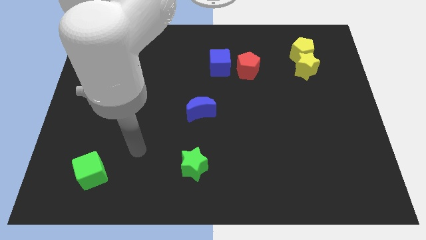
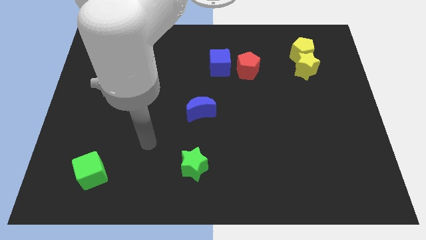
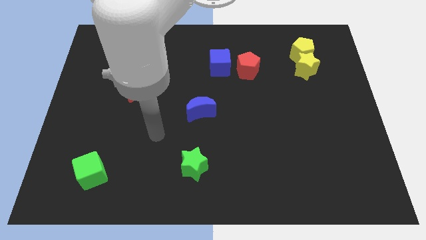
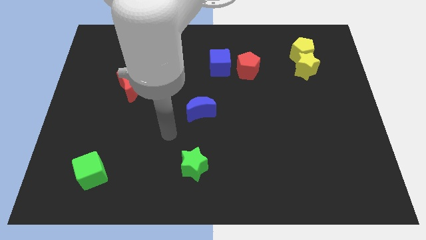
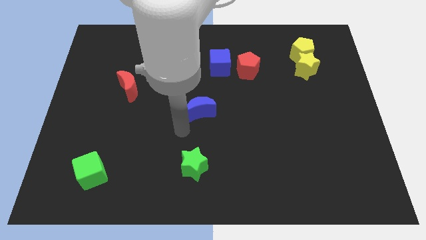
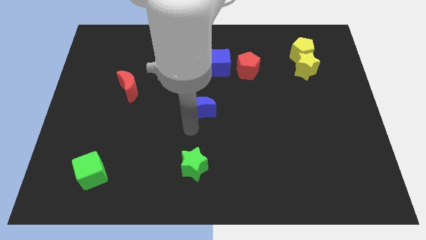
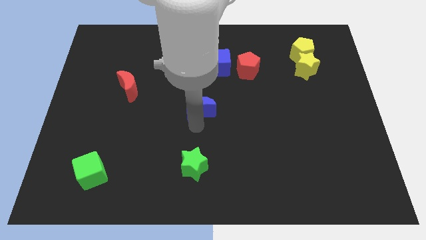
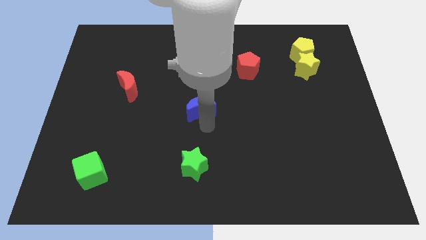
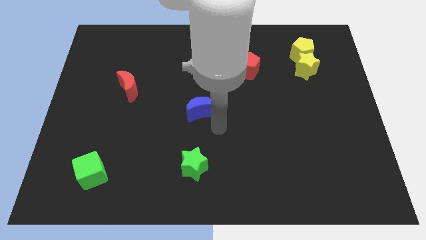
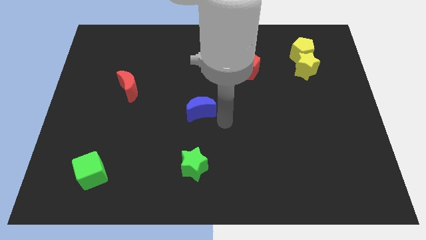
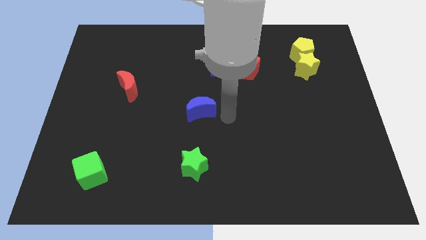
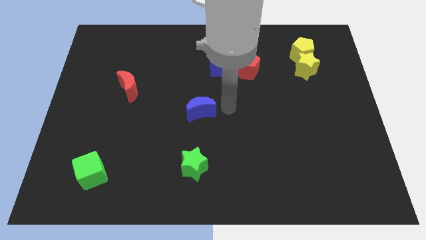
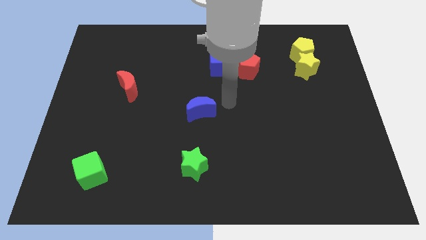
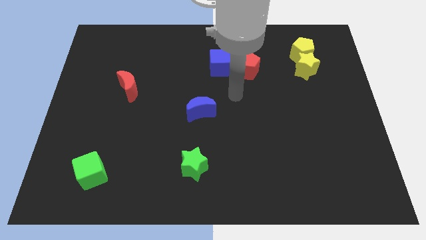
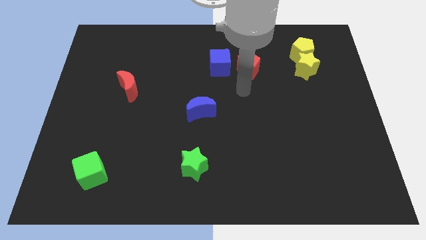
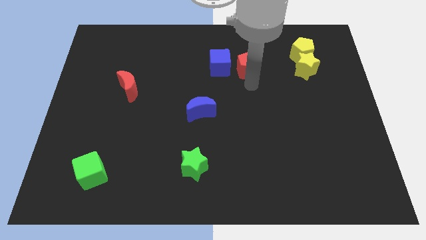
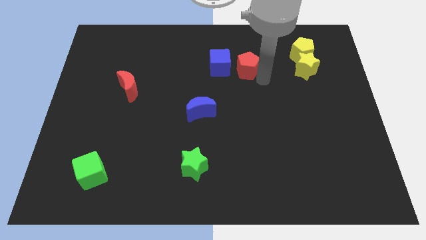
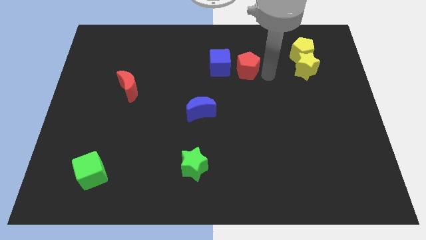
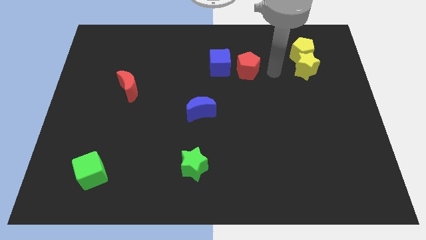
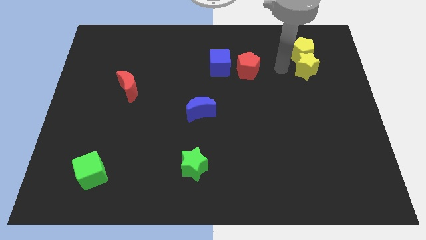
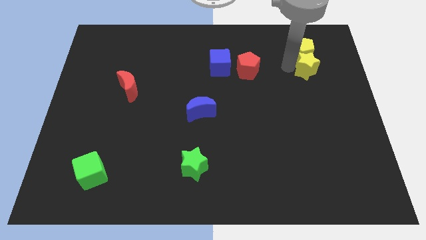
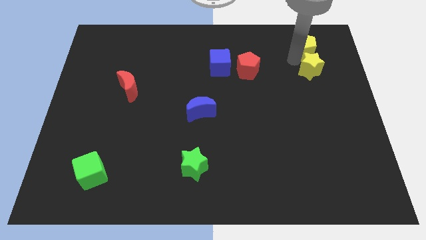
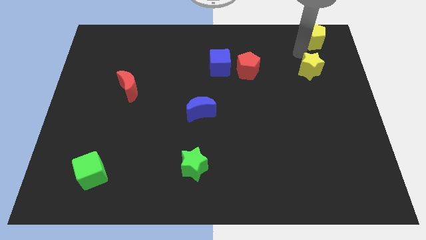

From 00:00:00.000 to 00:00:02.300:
separate the yellow star from the yellow pentagon

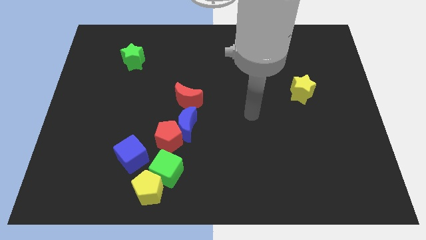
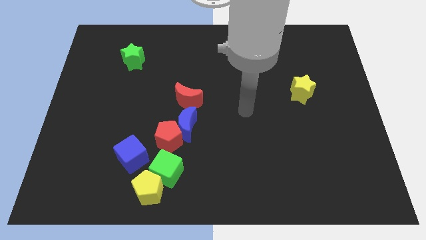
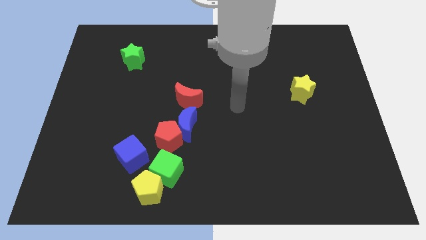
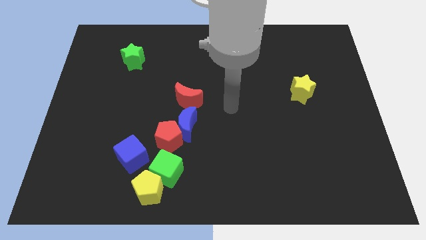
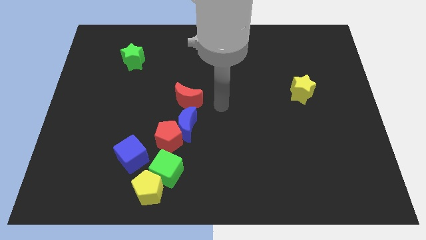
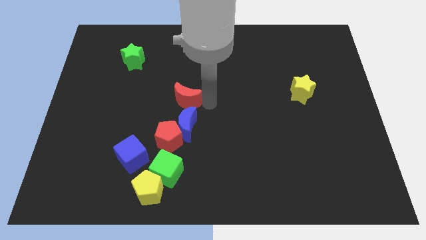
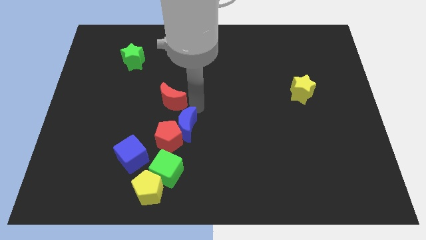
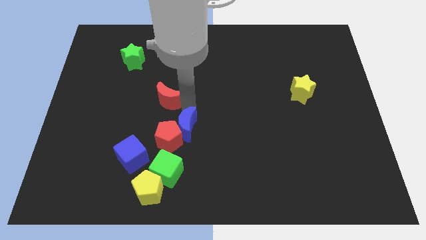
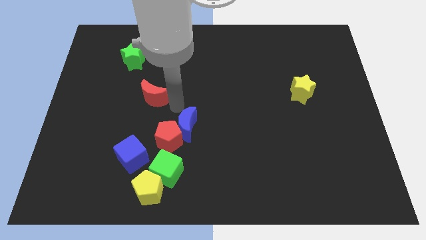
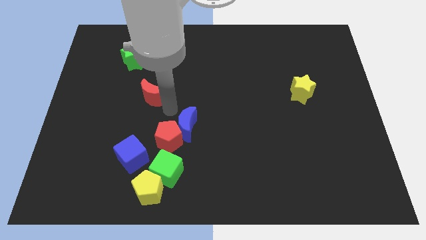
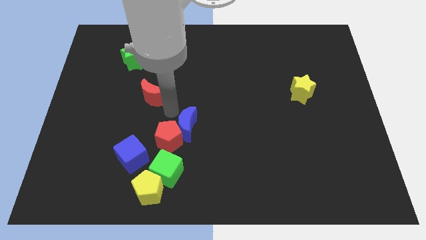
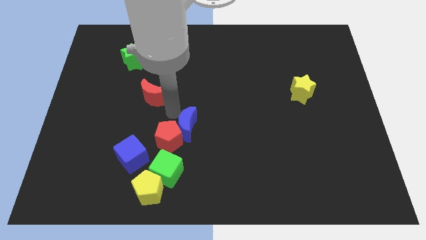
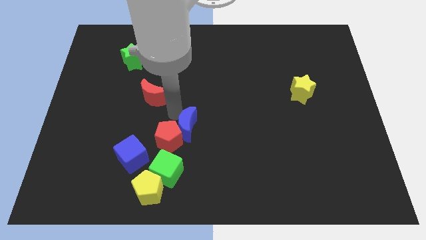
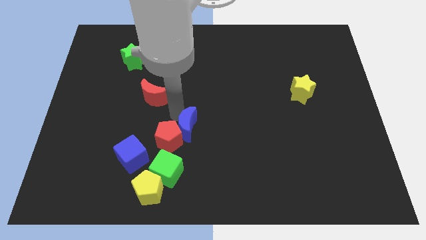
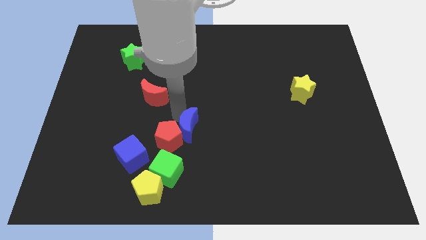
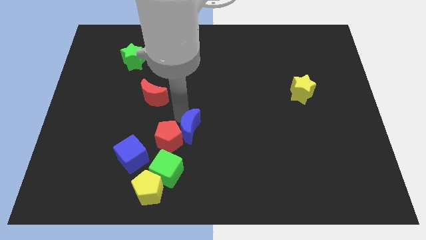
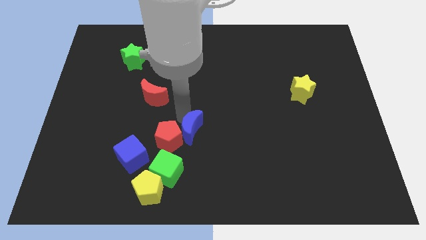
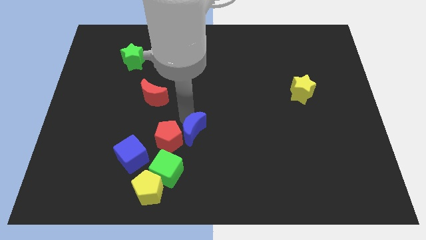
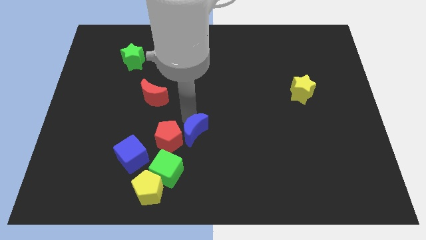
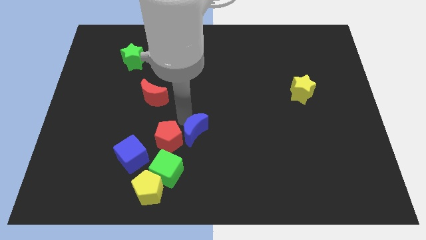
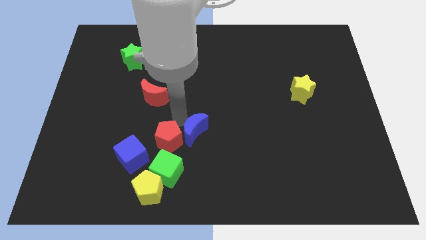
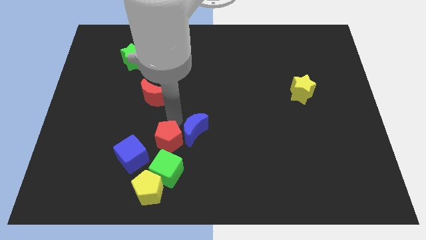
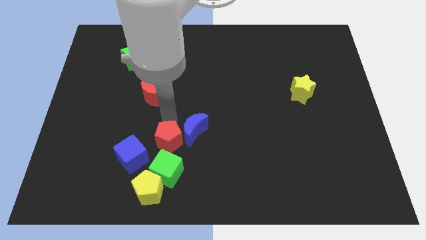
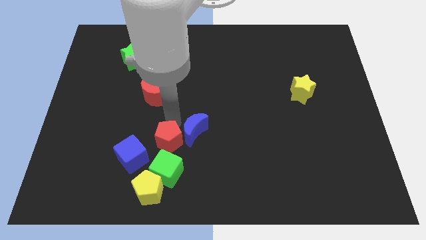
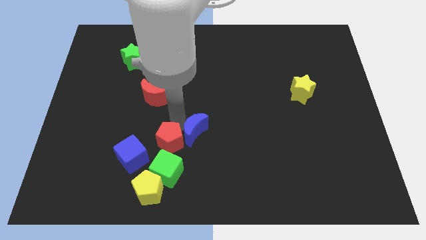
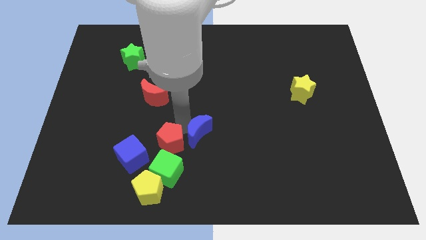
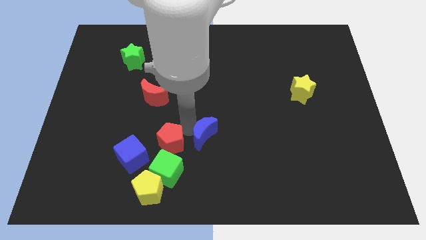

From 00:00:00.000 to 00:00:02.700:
pull the blue moon apart from the red pentagon and red moon

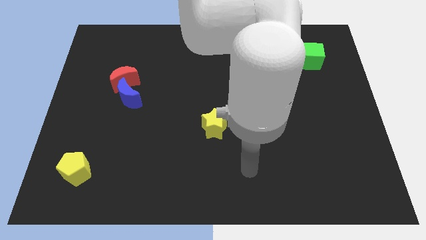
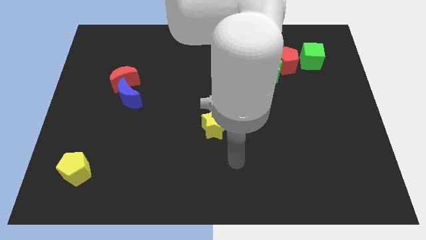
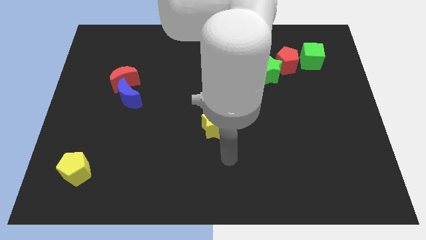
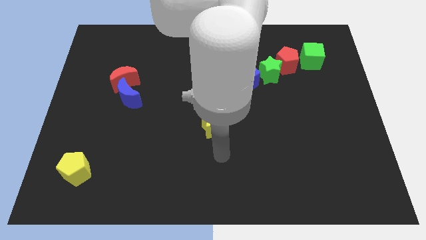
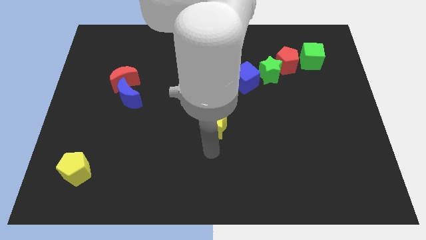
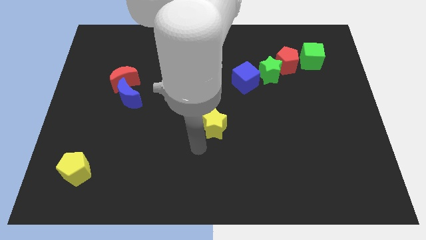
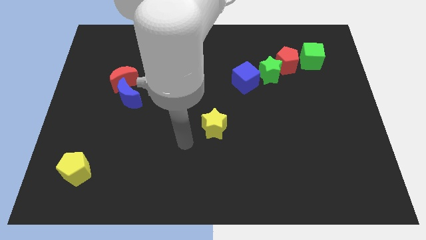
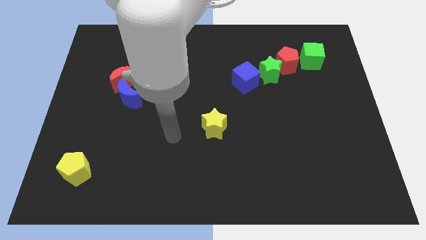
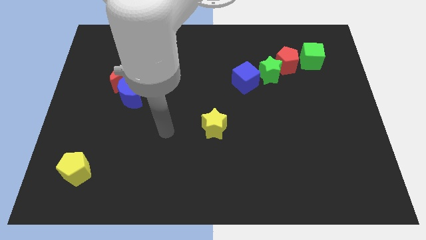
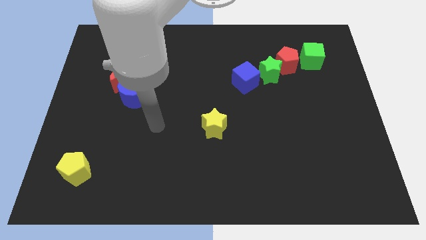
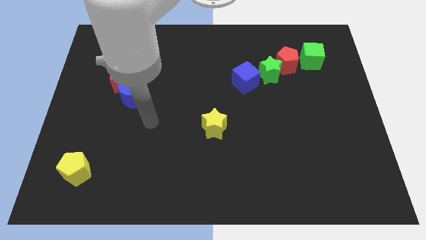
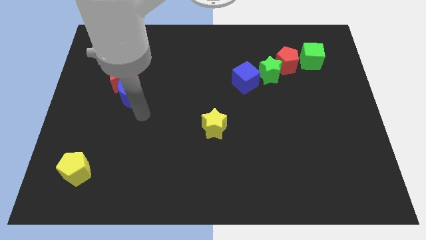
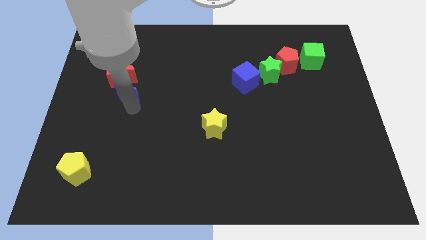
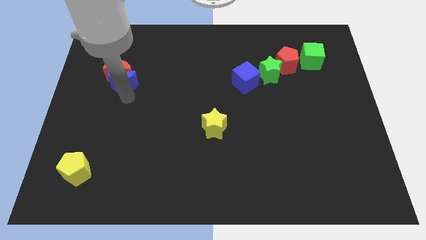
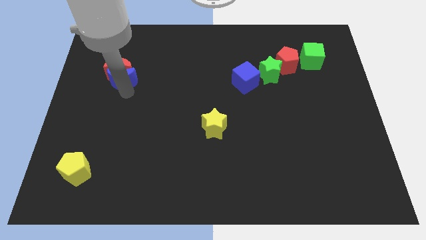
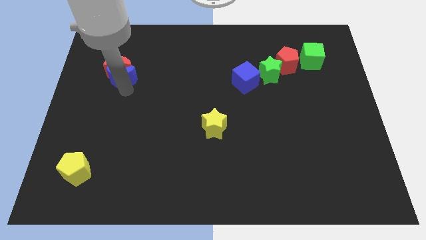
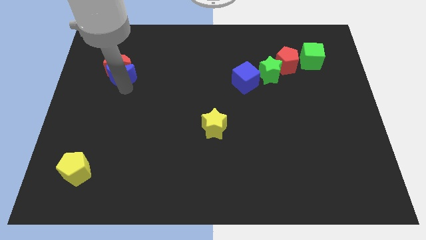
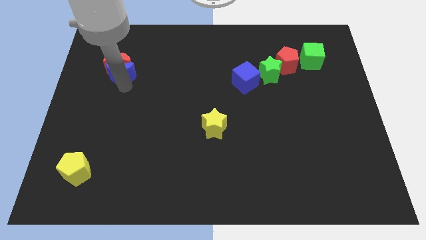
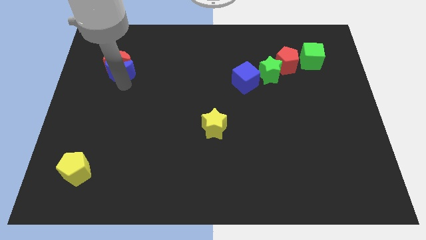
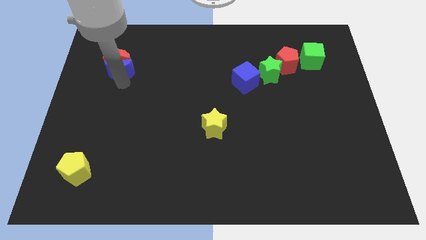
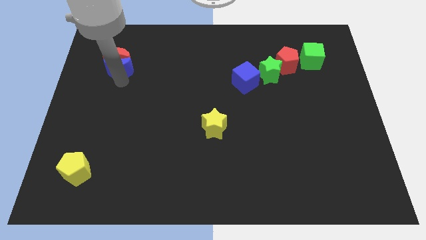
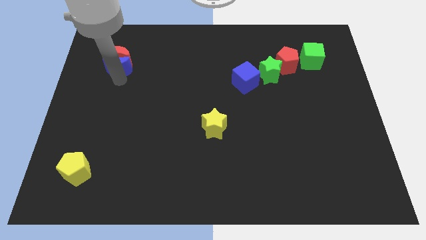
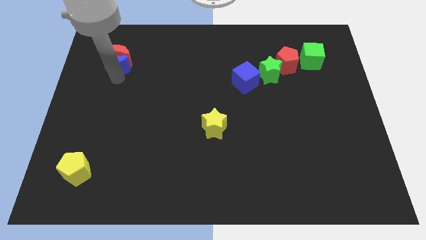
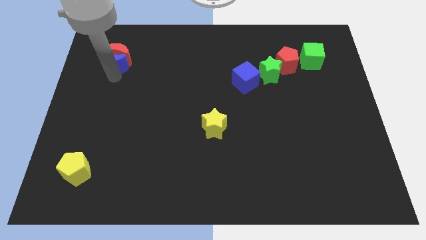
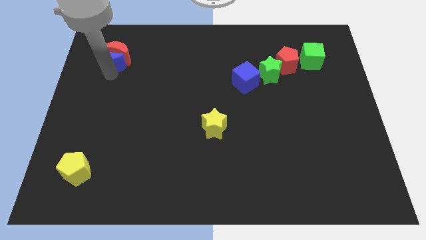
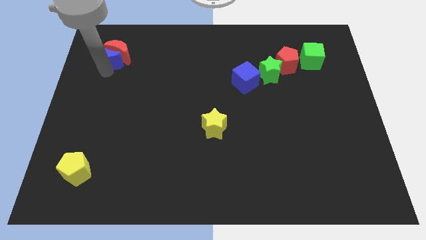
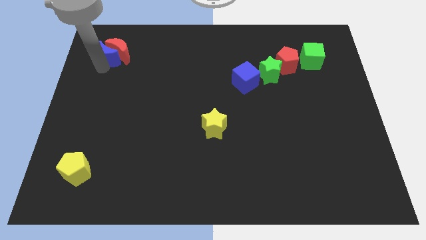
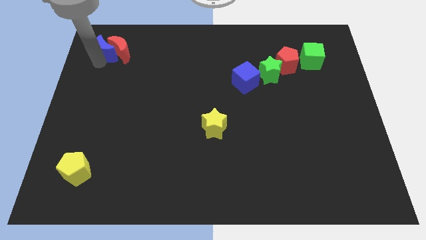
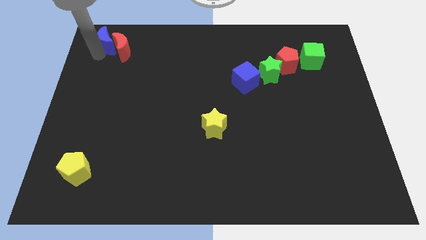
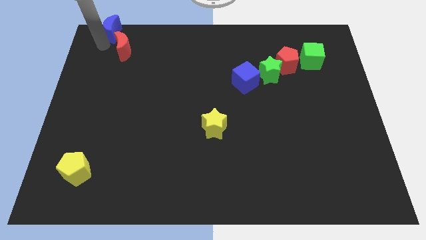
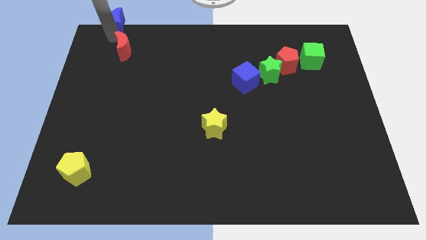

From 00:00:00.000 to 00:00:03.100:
pull the red moon apart from the blue moon

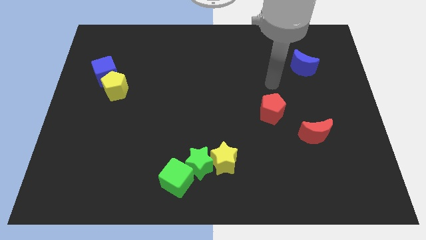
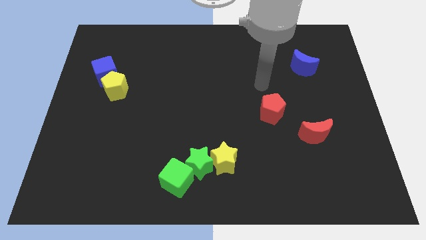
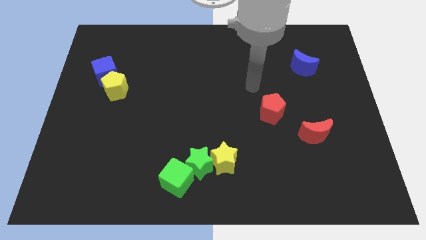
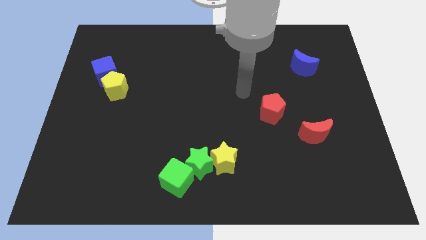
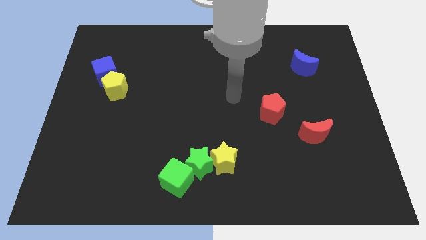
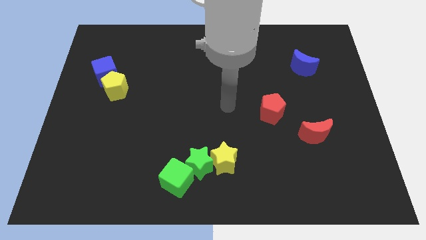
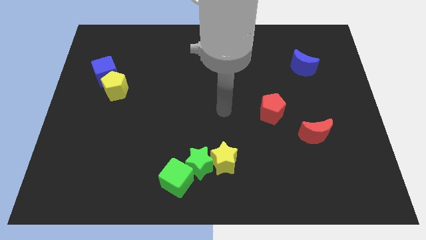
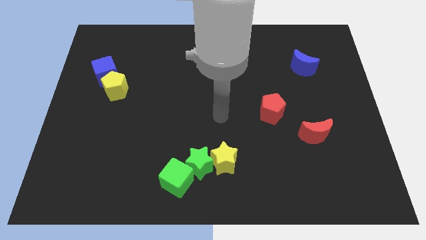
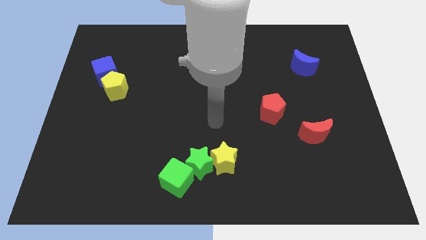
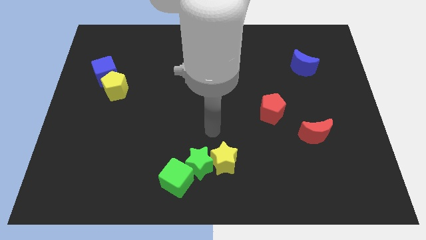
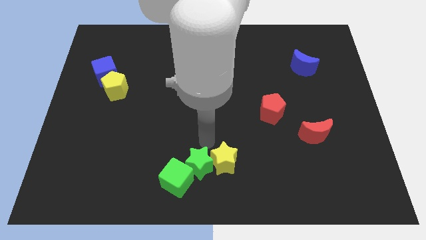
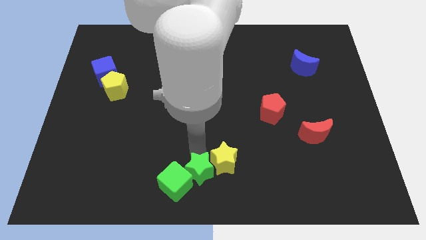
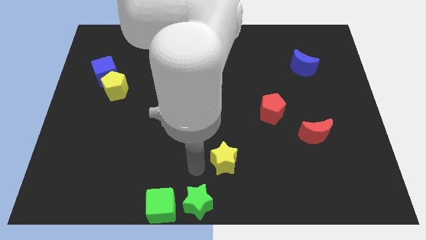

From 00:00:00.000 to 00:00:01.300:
pull the yellow star apart from the green star

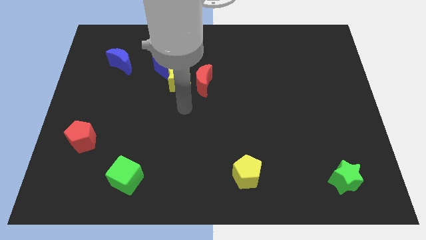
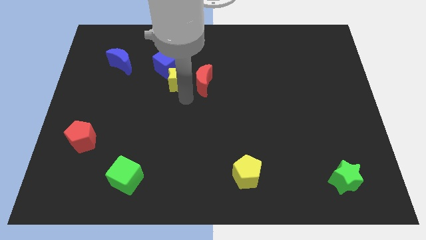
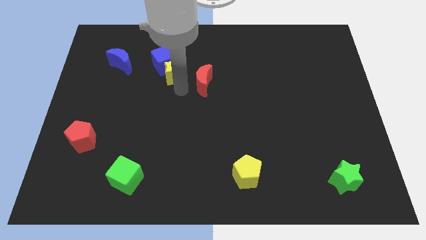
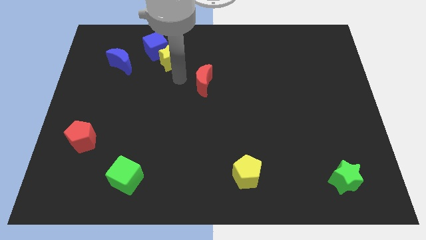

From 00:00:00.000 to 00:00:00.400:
separate the red moon from the yellow star
